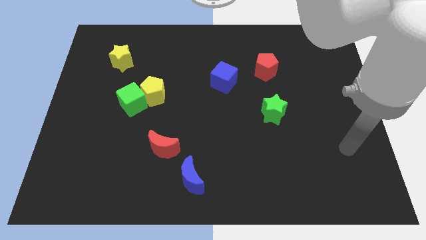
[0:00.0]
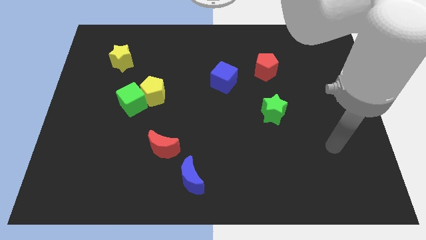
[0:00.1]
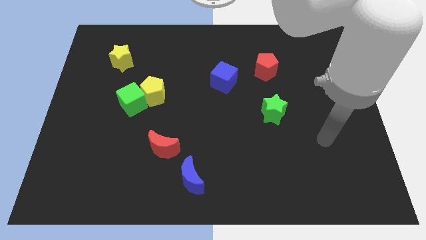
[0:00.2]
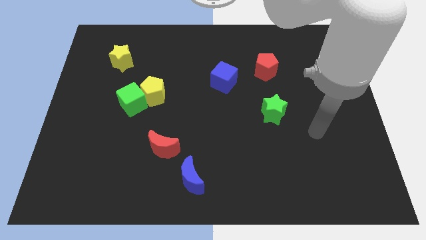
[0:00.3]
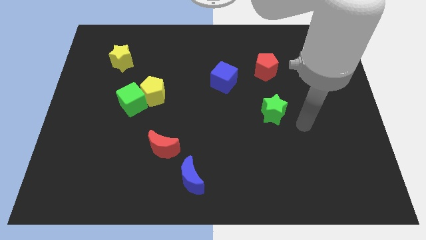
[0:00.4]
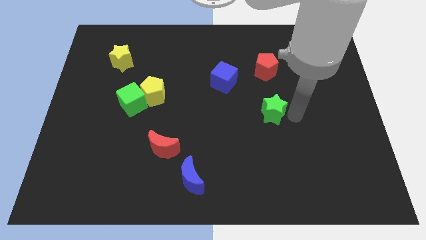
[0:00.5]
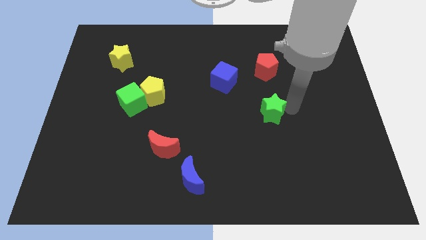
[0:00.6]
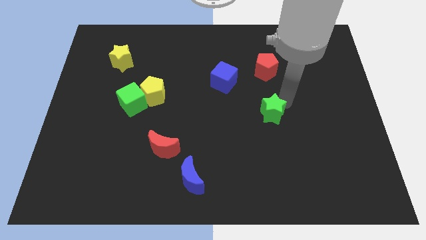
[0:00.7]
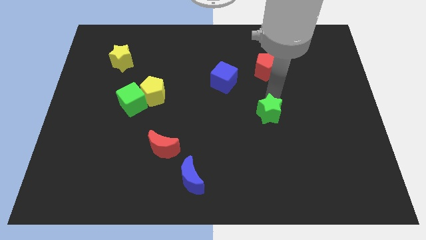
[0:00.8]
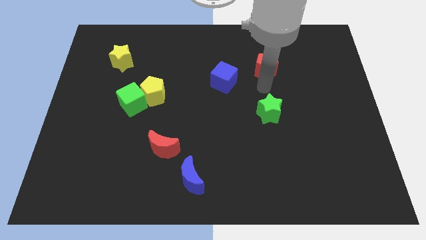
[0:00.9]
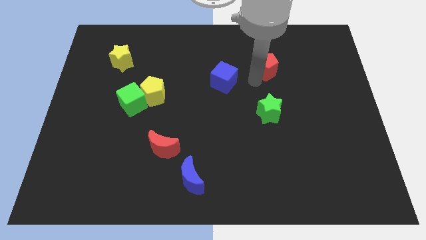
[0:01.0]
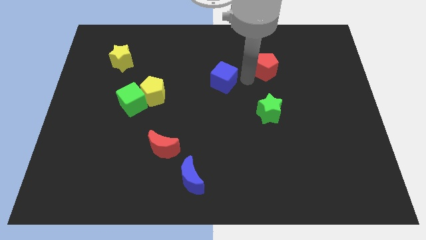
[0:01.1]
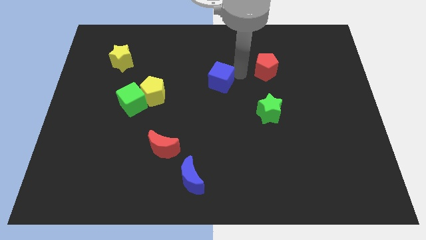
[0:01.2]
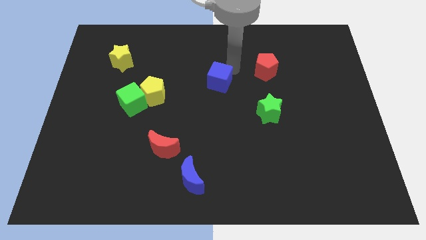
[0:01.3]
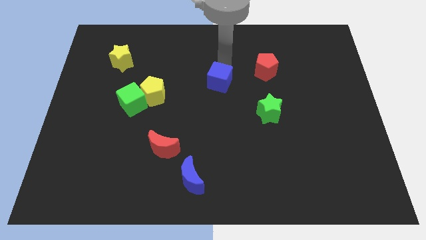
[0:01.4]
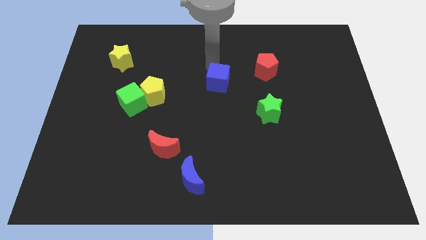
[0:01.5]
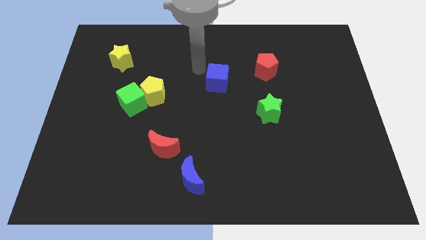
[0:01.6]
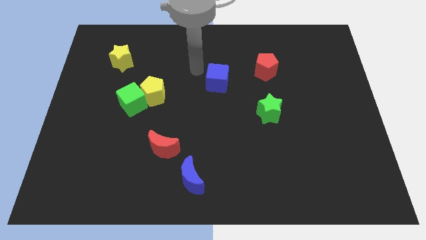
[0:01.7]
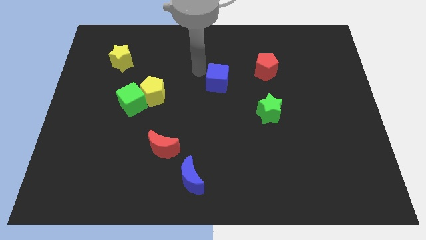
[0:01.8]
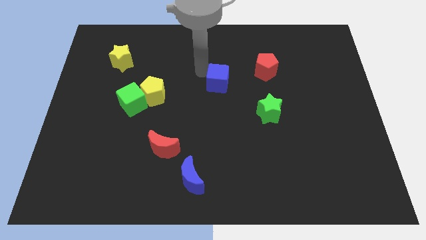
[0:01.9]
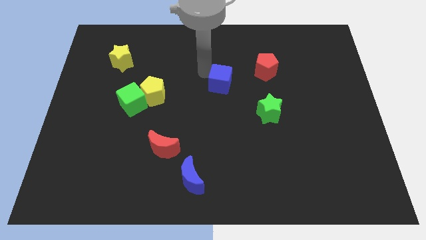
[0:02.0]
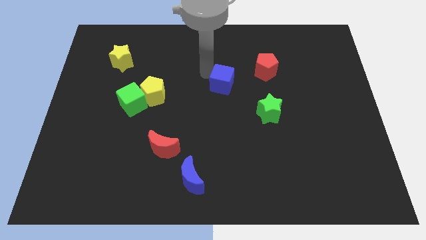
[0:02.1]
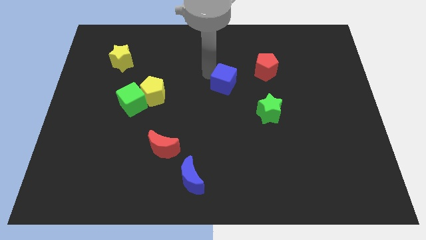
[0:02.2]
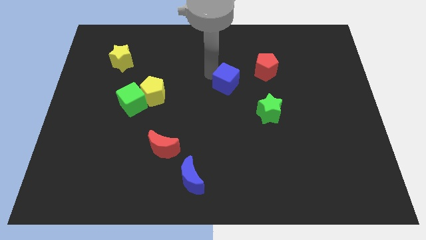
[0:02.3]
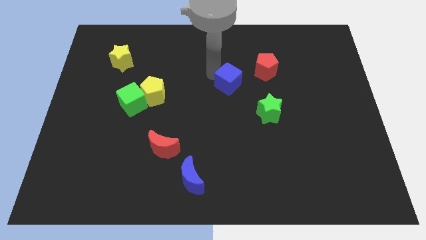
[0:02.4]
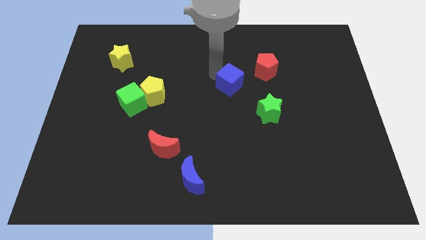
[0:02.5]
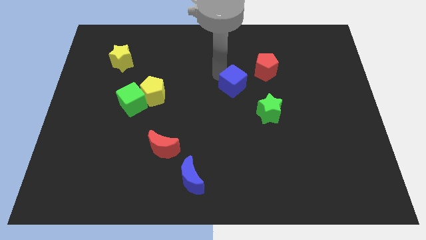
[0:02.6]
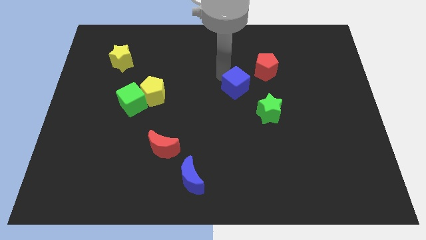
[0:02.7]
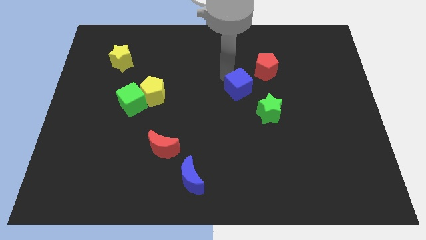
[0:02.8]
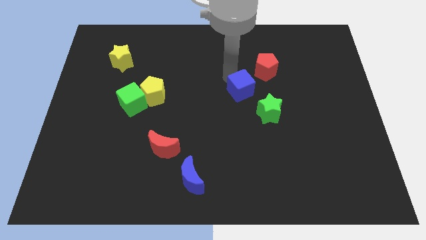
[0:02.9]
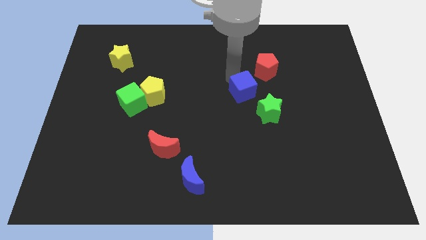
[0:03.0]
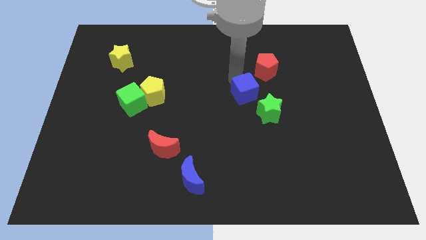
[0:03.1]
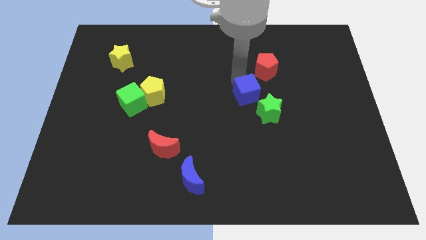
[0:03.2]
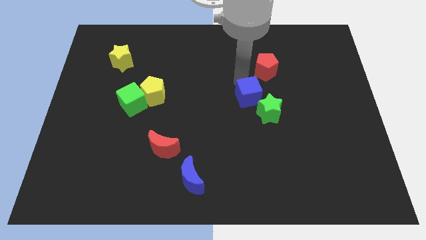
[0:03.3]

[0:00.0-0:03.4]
slightly slide the blue cube down and to the right

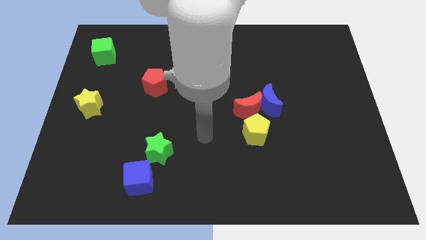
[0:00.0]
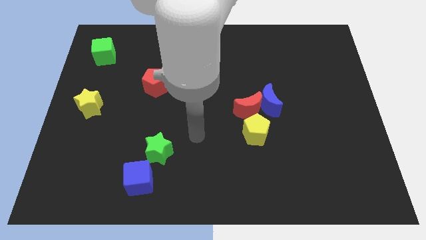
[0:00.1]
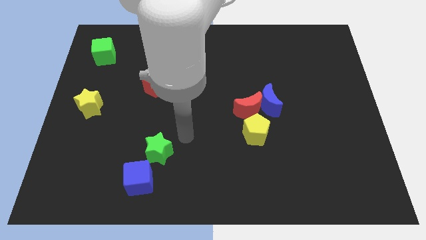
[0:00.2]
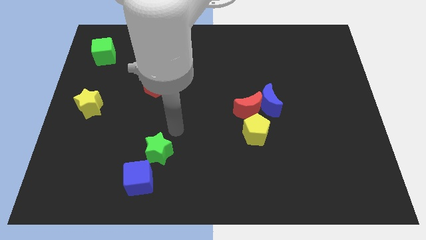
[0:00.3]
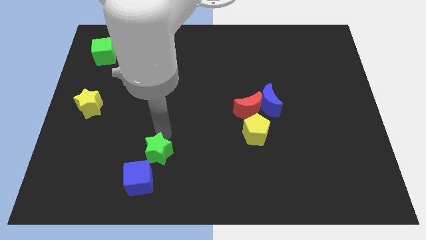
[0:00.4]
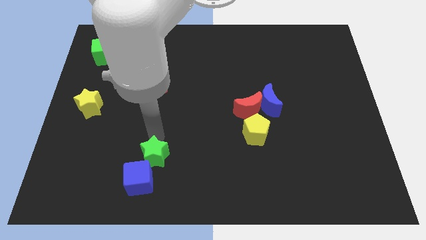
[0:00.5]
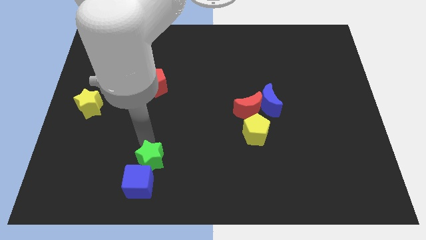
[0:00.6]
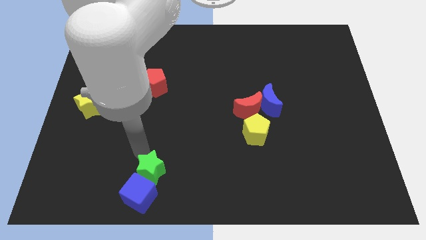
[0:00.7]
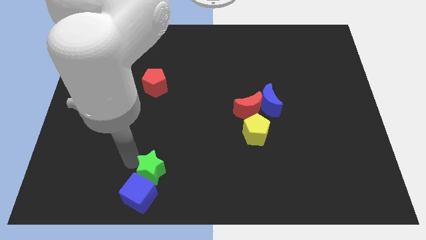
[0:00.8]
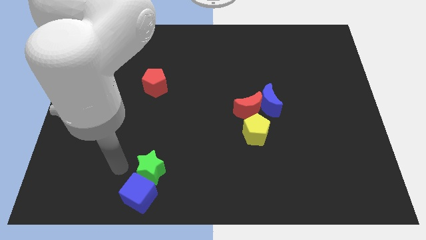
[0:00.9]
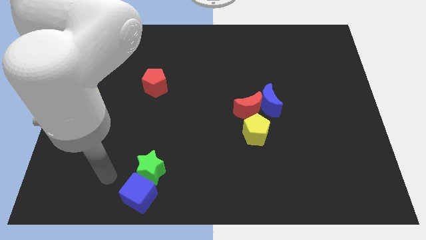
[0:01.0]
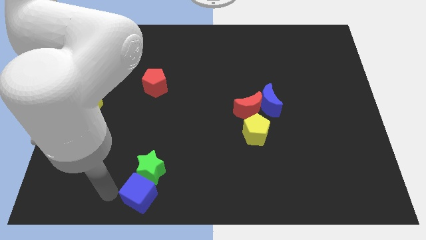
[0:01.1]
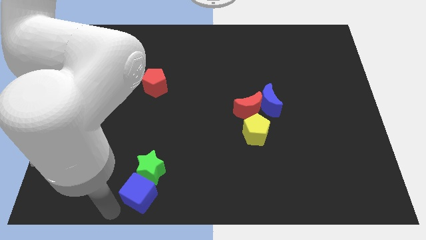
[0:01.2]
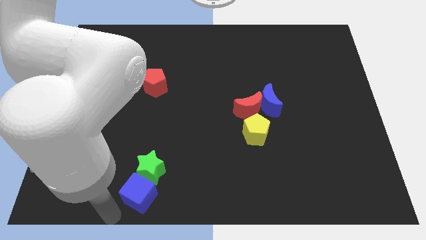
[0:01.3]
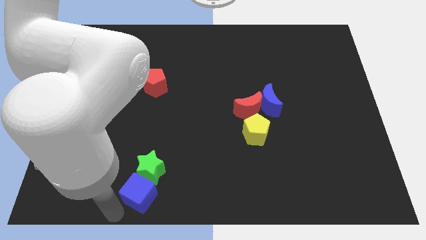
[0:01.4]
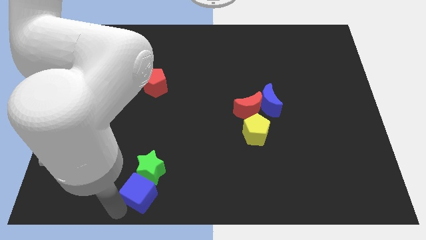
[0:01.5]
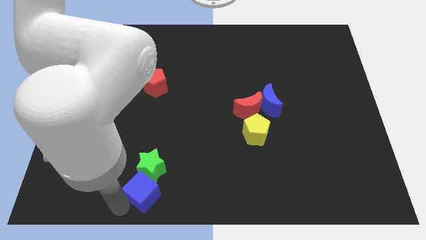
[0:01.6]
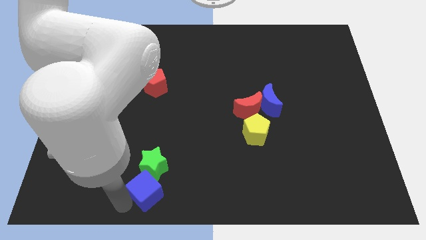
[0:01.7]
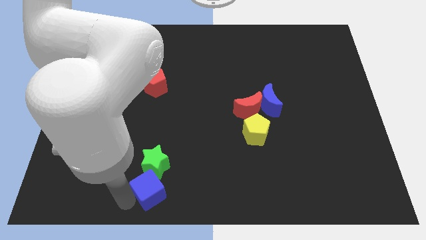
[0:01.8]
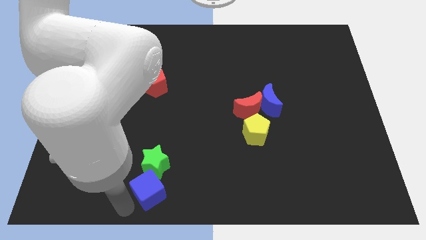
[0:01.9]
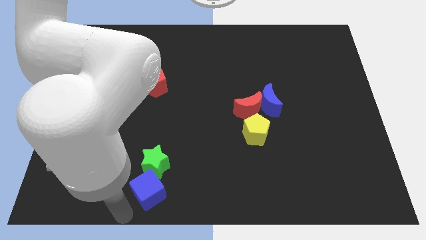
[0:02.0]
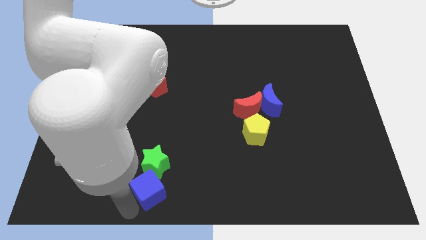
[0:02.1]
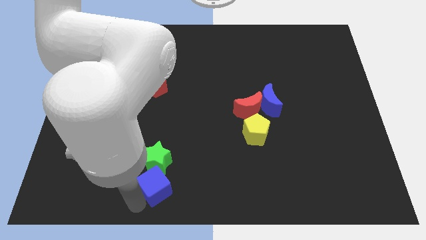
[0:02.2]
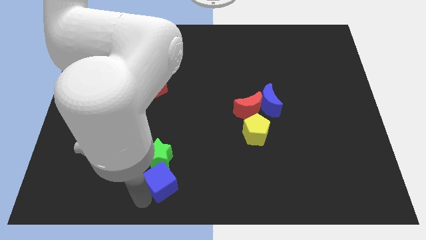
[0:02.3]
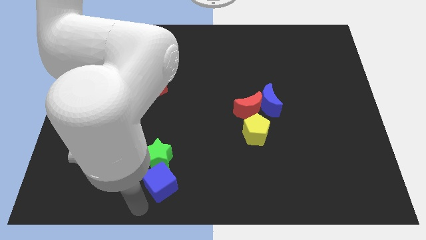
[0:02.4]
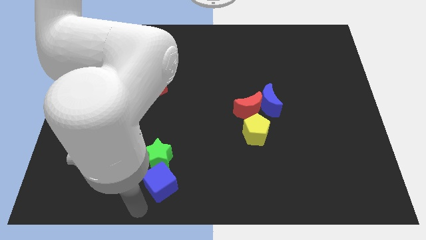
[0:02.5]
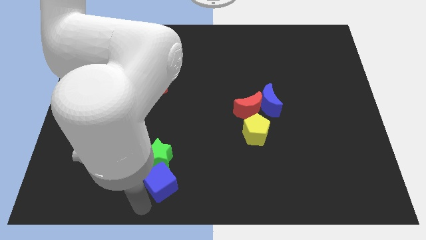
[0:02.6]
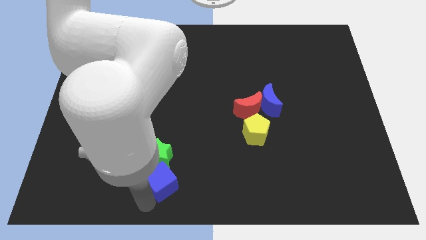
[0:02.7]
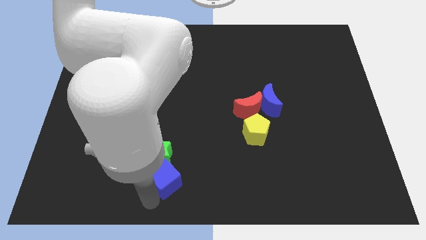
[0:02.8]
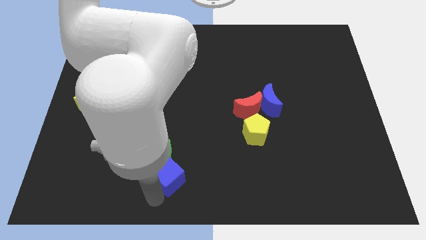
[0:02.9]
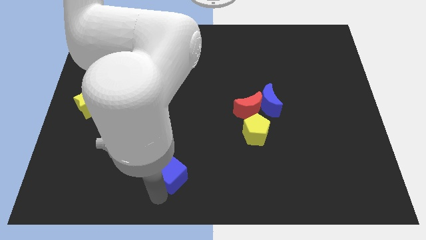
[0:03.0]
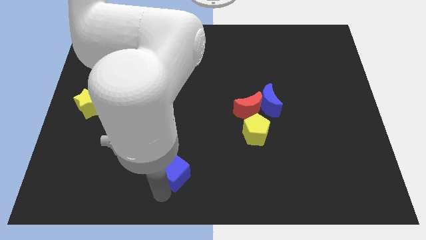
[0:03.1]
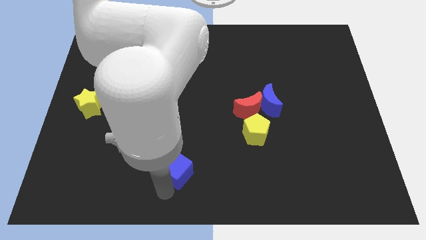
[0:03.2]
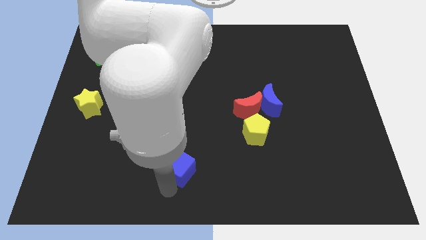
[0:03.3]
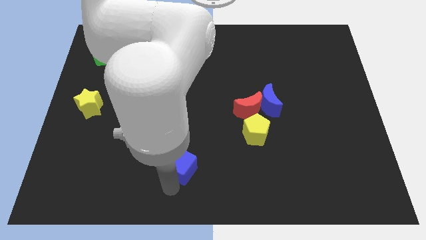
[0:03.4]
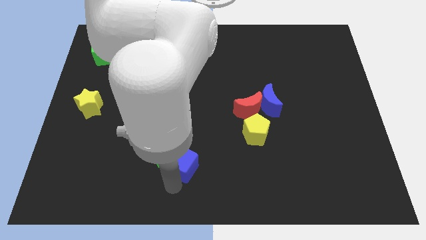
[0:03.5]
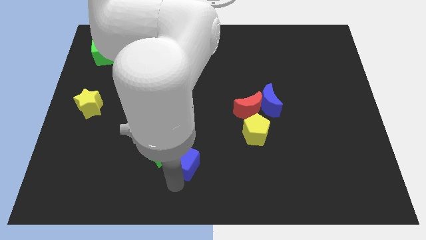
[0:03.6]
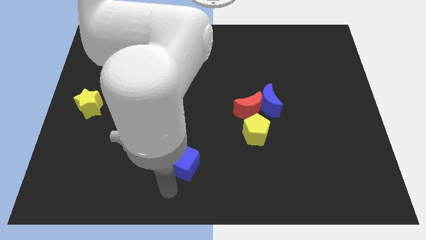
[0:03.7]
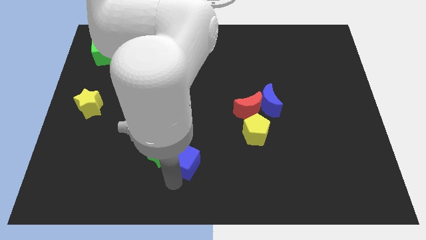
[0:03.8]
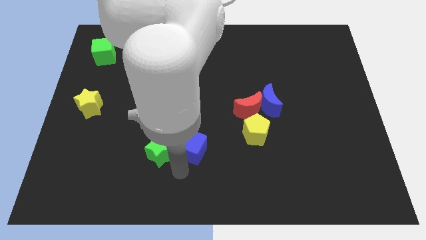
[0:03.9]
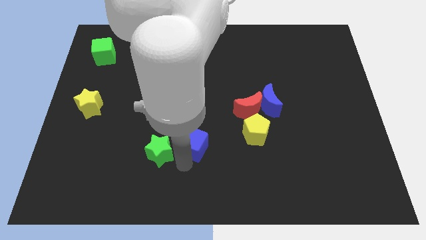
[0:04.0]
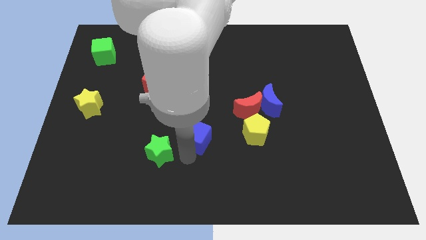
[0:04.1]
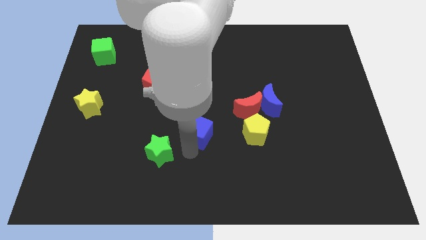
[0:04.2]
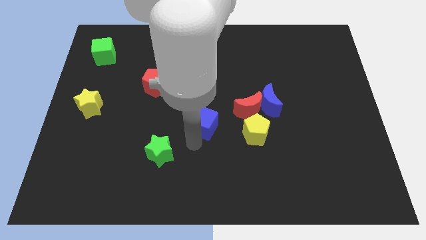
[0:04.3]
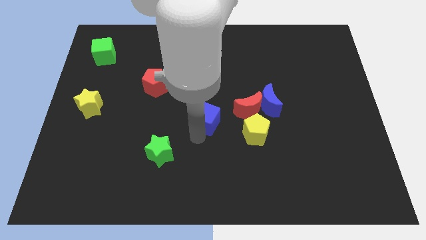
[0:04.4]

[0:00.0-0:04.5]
push the blue cube upwards and to the right
